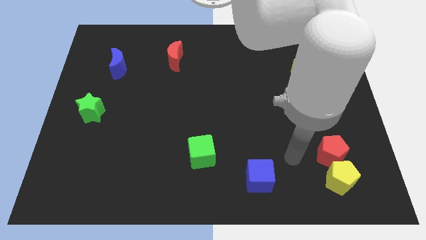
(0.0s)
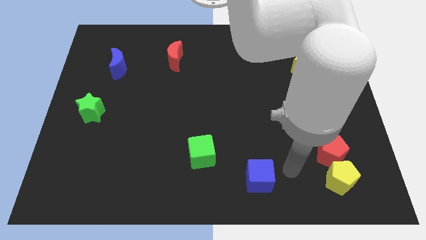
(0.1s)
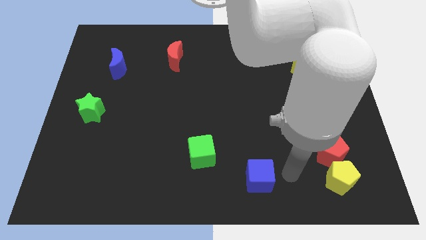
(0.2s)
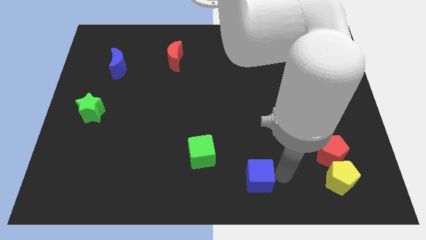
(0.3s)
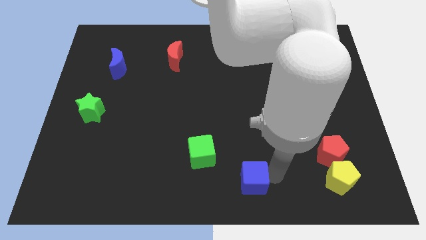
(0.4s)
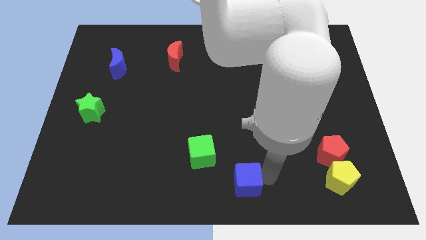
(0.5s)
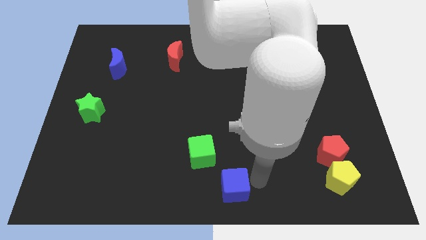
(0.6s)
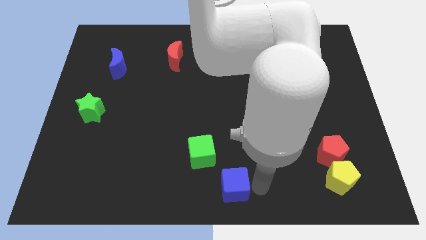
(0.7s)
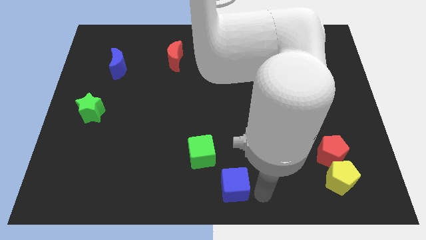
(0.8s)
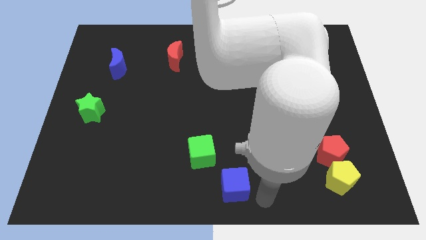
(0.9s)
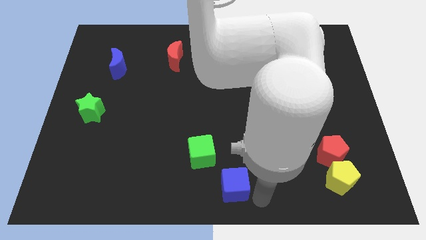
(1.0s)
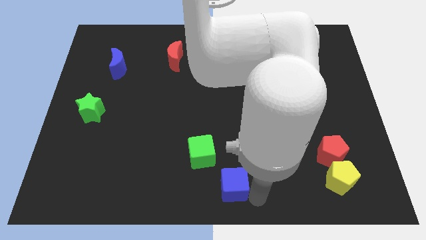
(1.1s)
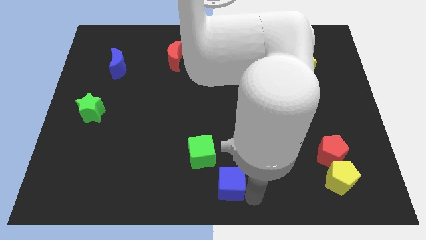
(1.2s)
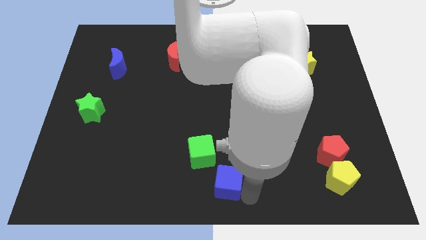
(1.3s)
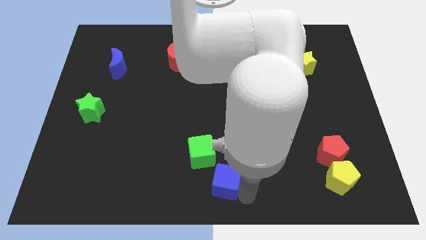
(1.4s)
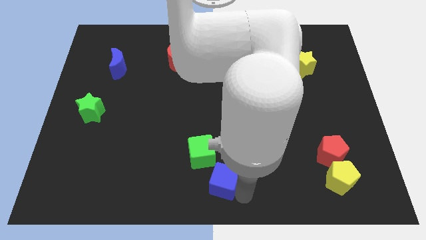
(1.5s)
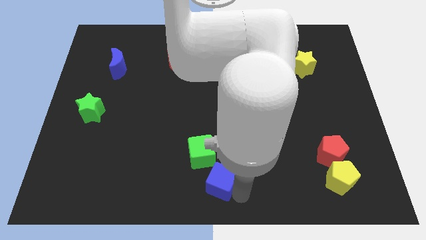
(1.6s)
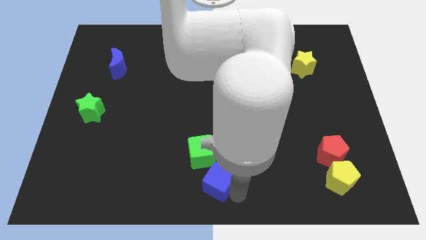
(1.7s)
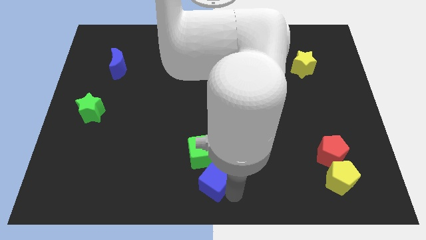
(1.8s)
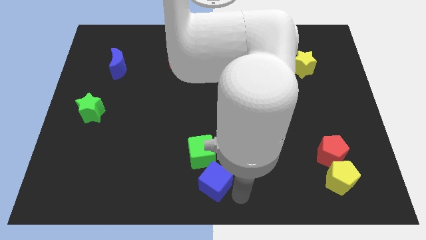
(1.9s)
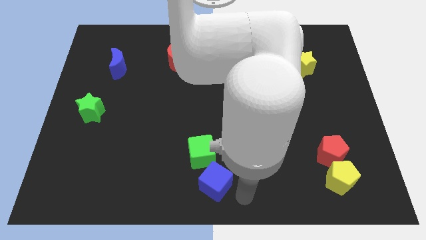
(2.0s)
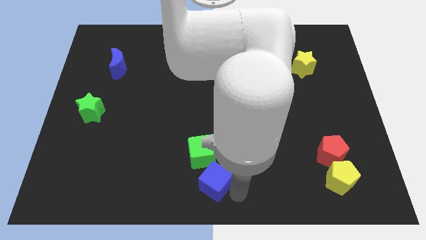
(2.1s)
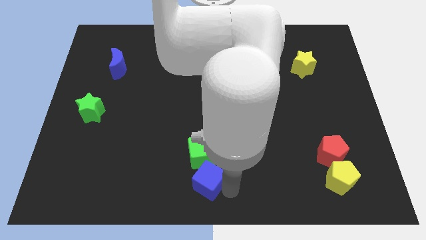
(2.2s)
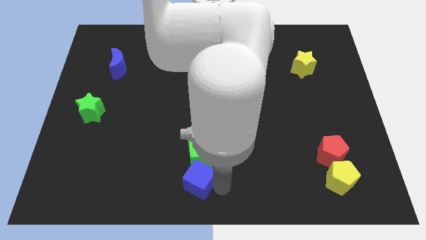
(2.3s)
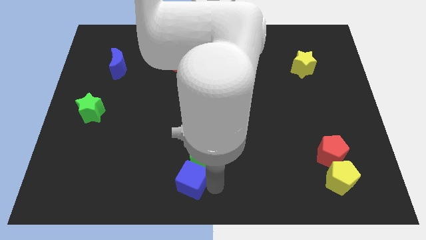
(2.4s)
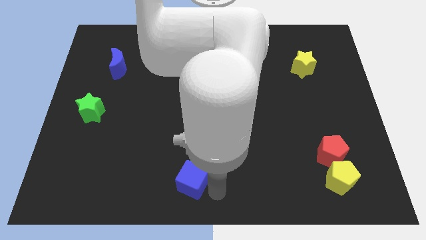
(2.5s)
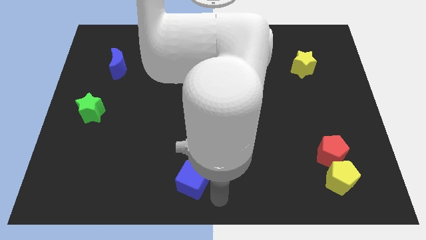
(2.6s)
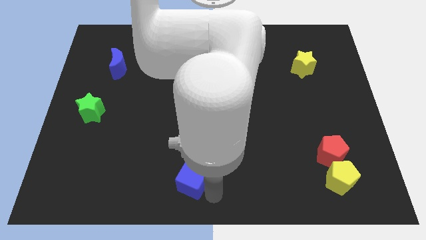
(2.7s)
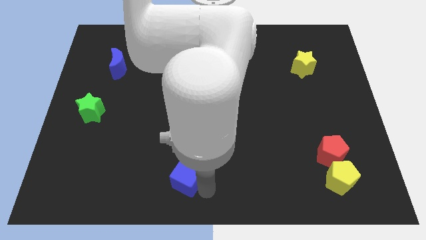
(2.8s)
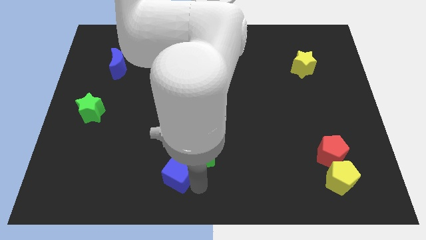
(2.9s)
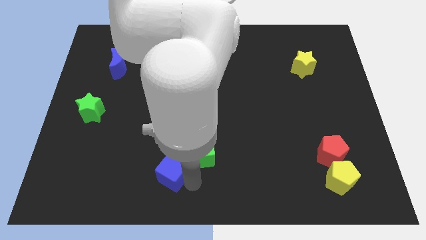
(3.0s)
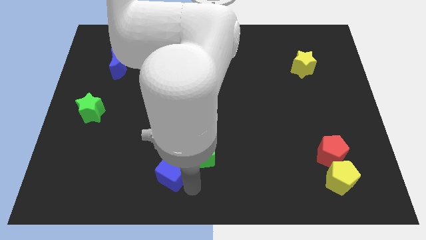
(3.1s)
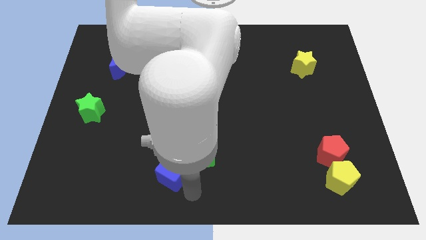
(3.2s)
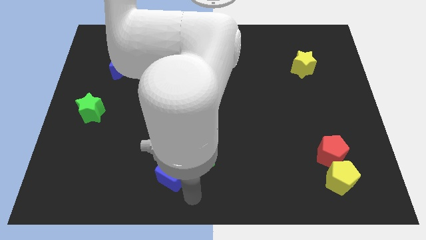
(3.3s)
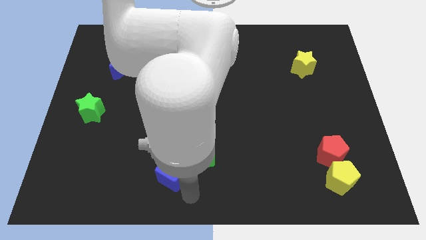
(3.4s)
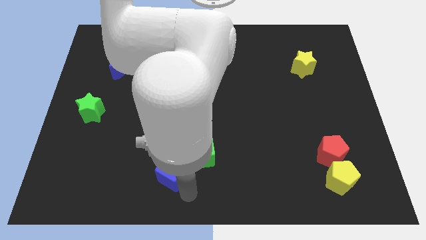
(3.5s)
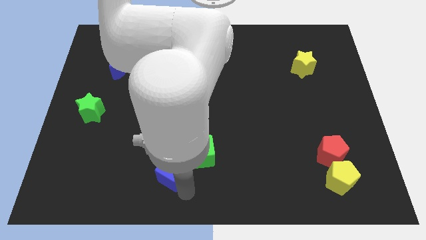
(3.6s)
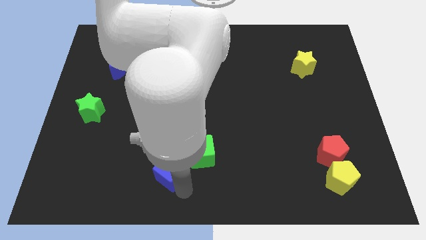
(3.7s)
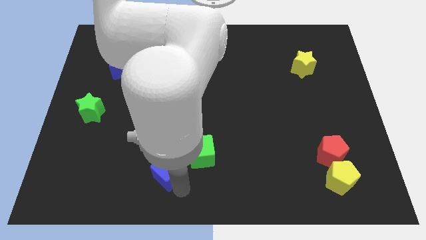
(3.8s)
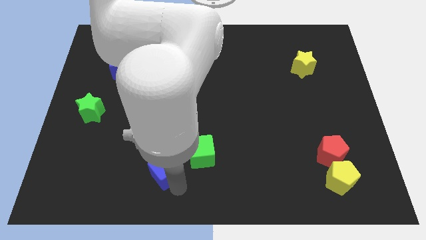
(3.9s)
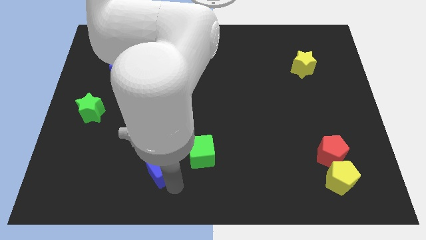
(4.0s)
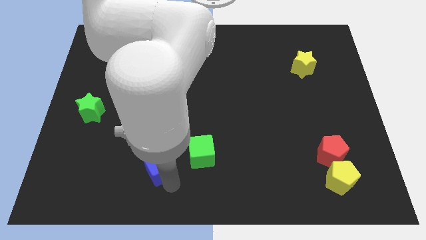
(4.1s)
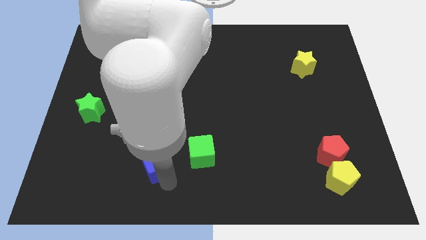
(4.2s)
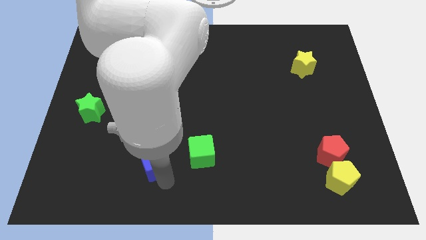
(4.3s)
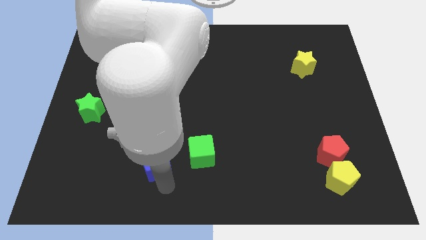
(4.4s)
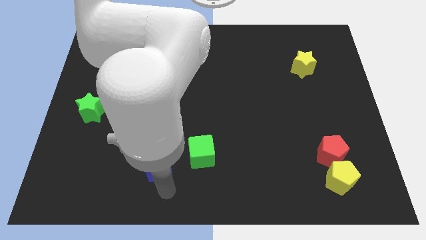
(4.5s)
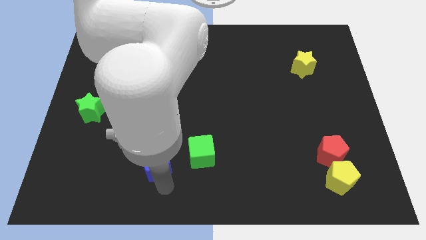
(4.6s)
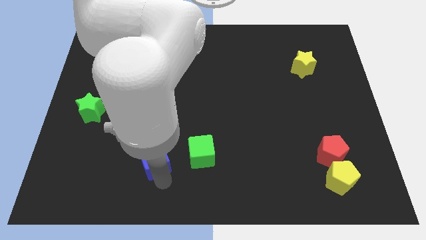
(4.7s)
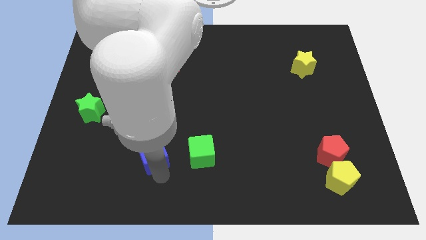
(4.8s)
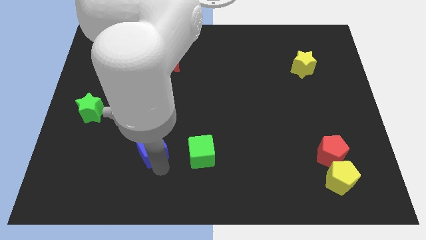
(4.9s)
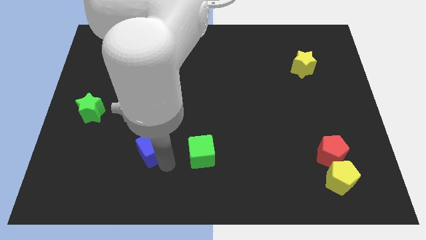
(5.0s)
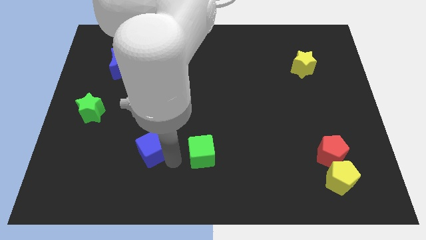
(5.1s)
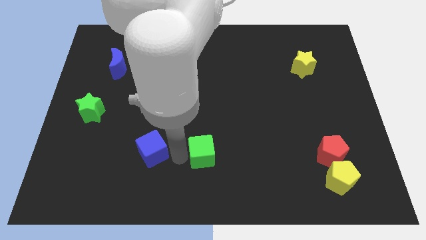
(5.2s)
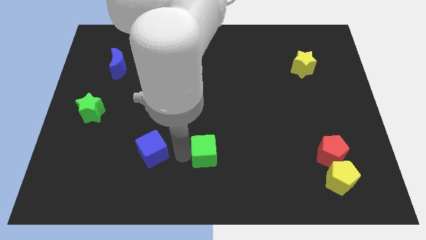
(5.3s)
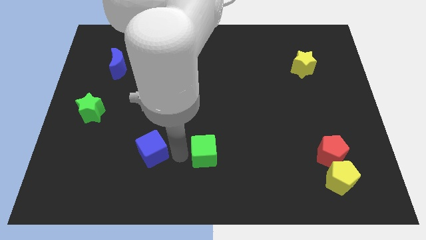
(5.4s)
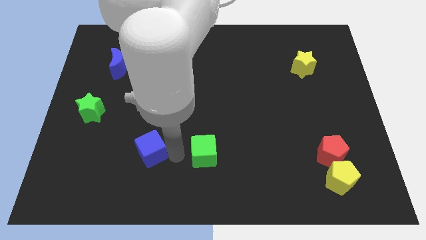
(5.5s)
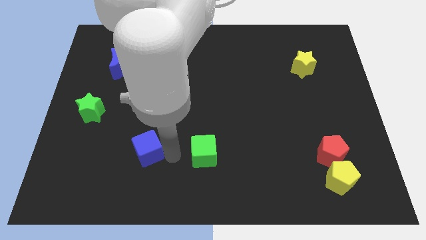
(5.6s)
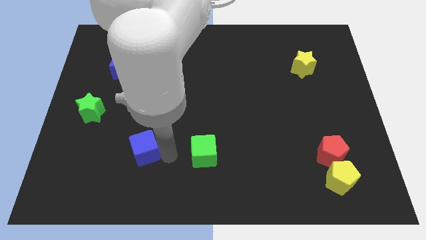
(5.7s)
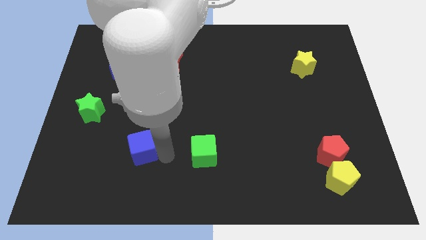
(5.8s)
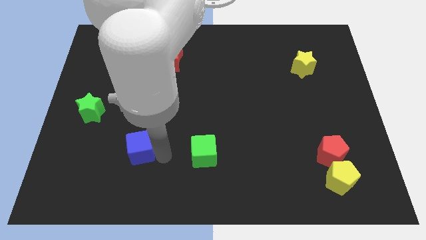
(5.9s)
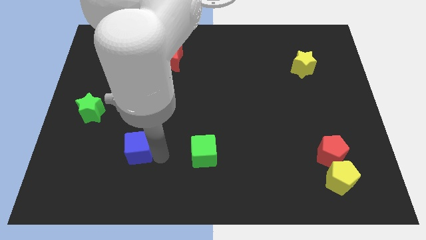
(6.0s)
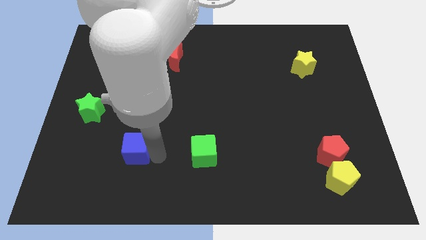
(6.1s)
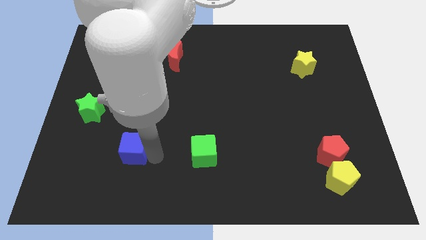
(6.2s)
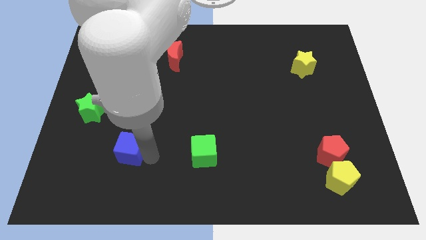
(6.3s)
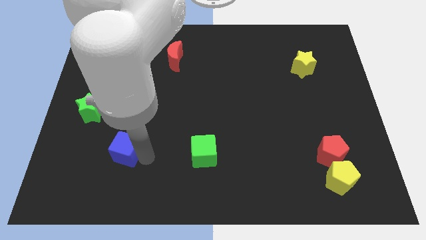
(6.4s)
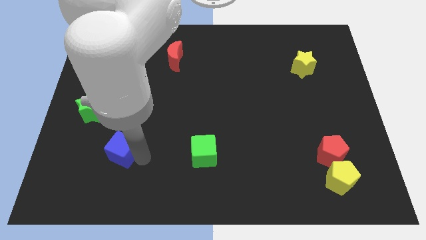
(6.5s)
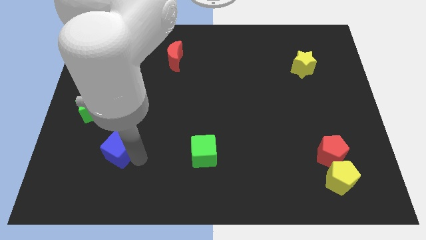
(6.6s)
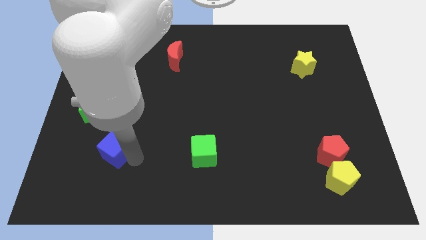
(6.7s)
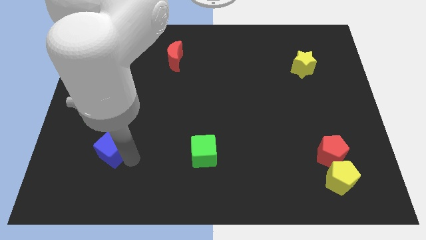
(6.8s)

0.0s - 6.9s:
slide the blue cube to the bottom right side of the green star

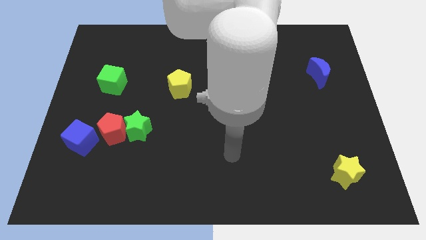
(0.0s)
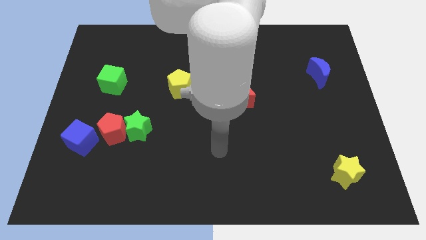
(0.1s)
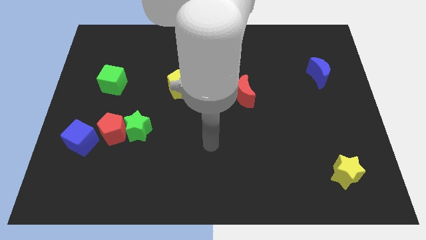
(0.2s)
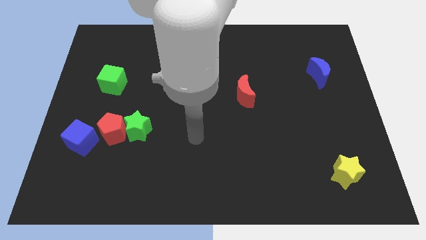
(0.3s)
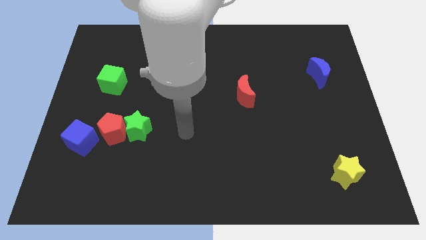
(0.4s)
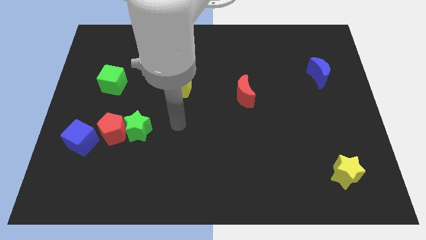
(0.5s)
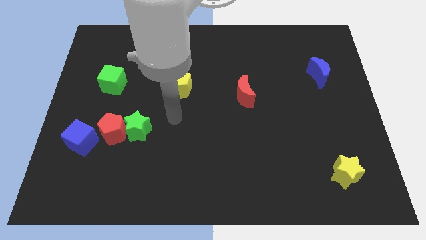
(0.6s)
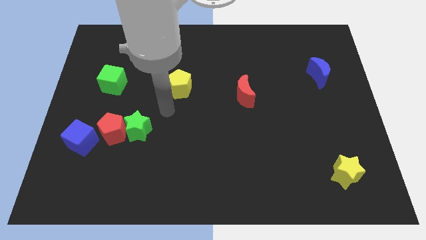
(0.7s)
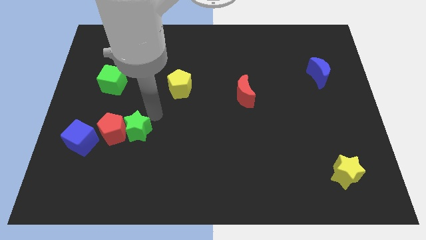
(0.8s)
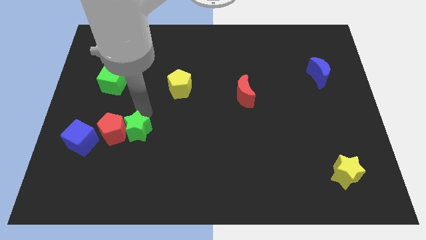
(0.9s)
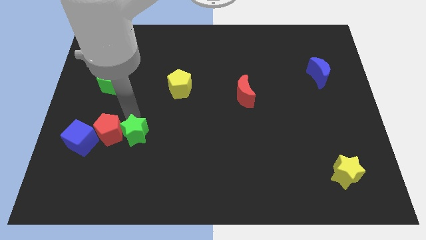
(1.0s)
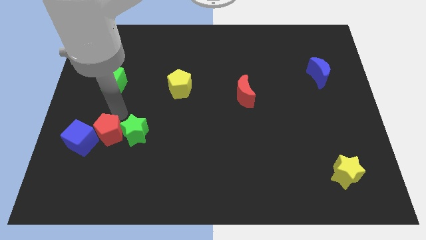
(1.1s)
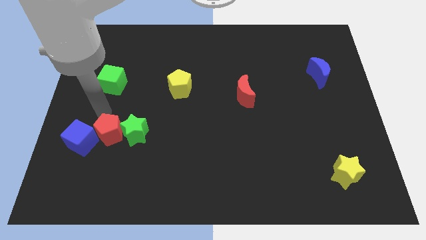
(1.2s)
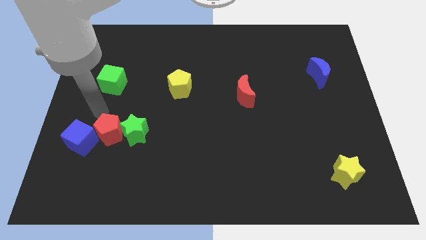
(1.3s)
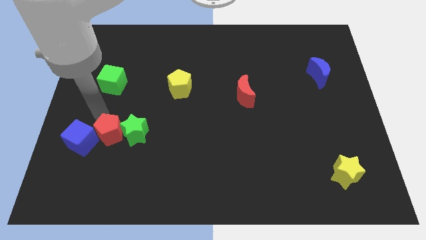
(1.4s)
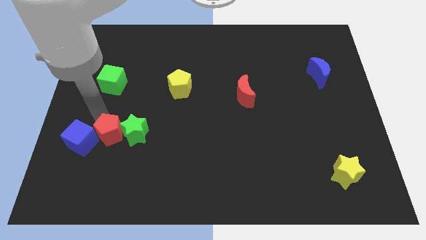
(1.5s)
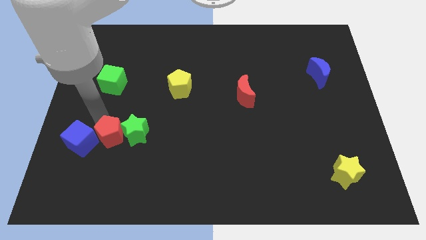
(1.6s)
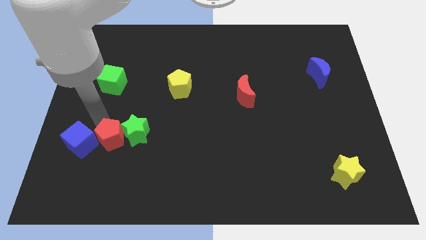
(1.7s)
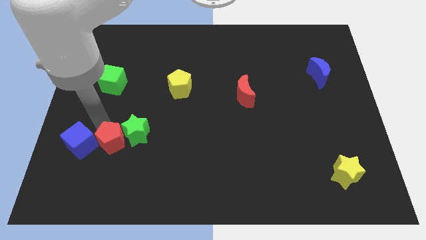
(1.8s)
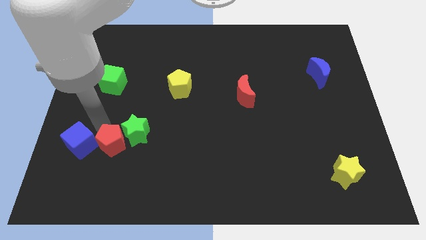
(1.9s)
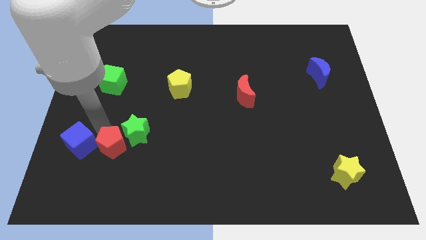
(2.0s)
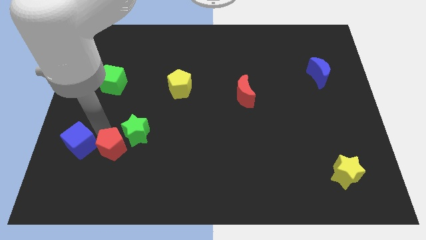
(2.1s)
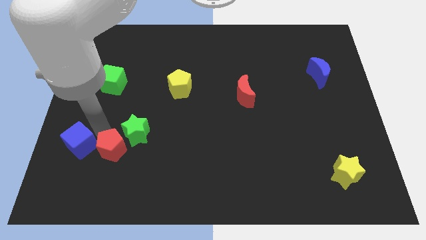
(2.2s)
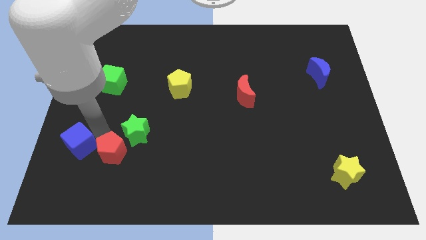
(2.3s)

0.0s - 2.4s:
move the red pentagon below the green star
